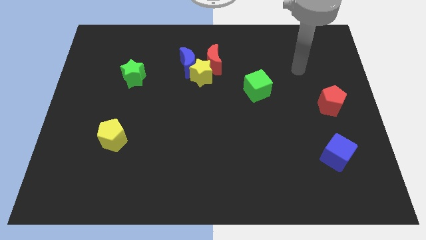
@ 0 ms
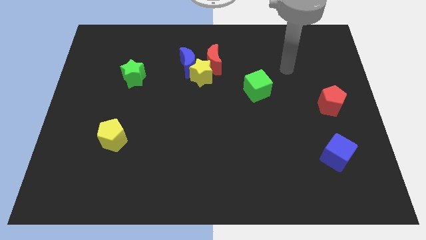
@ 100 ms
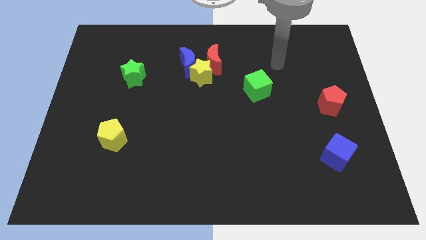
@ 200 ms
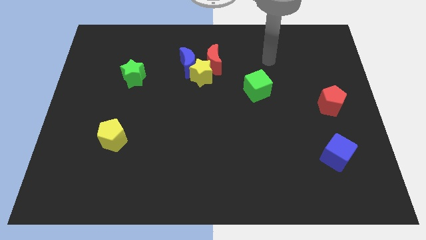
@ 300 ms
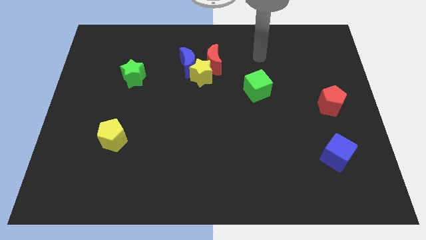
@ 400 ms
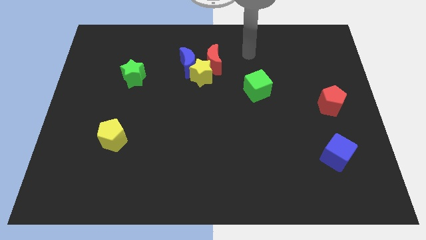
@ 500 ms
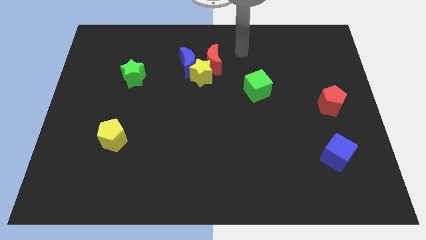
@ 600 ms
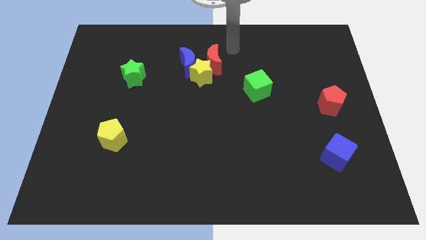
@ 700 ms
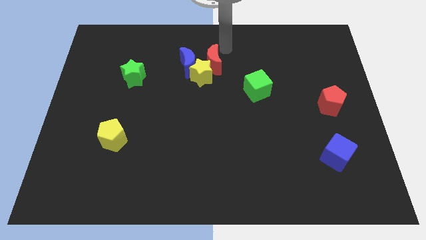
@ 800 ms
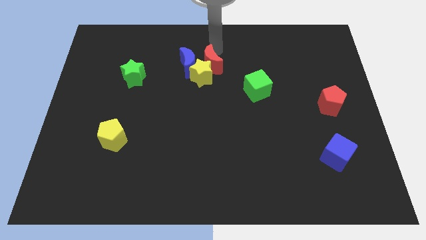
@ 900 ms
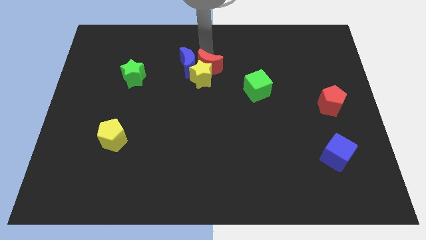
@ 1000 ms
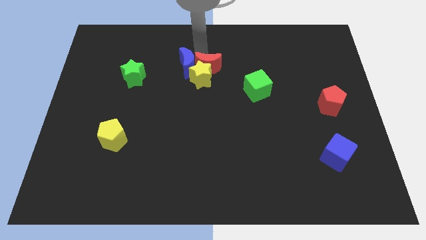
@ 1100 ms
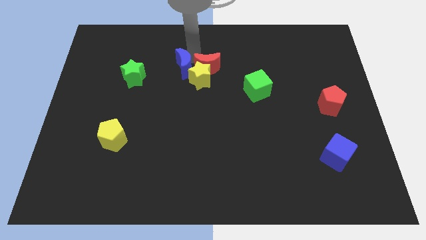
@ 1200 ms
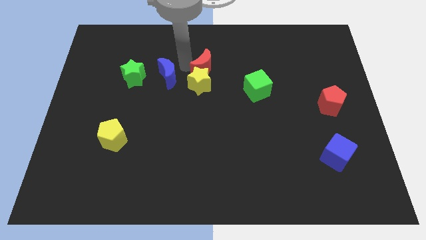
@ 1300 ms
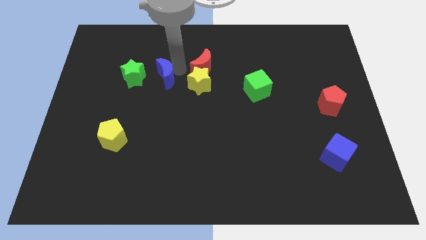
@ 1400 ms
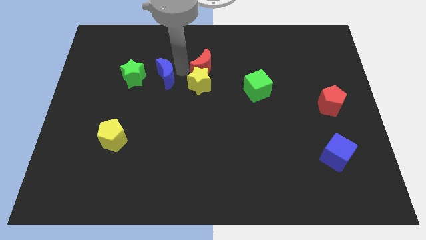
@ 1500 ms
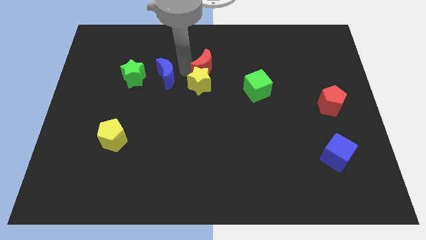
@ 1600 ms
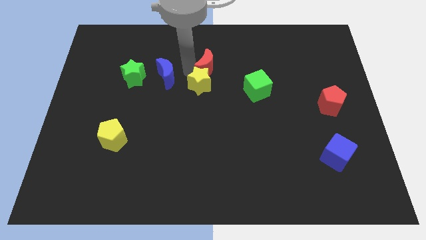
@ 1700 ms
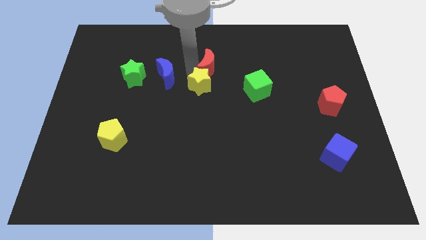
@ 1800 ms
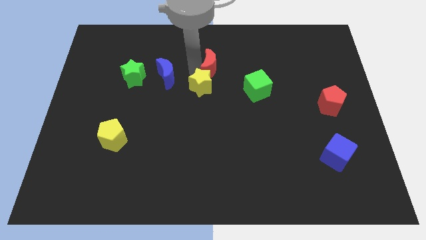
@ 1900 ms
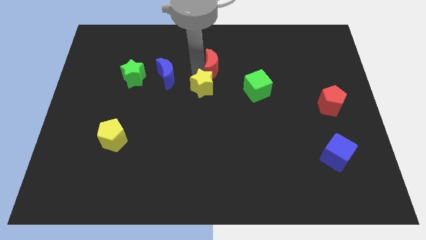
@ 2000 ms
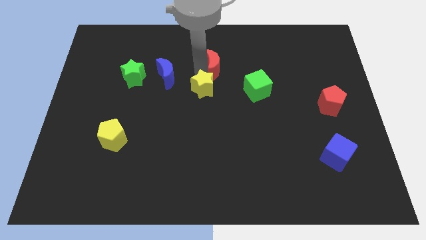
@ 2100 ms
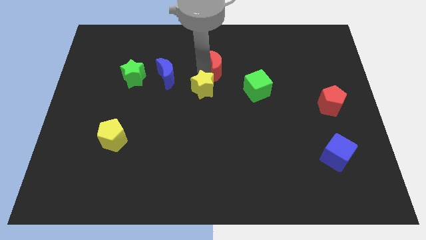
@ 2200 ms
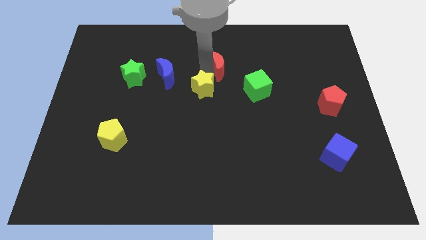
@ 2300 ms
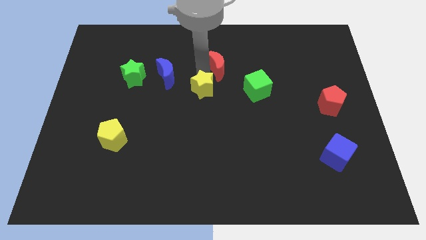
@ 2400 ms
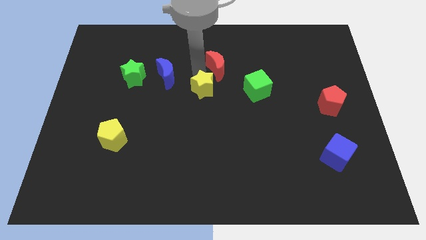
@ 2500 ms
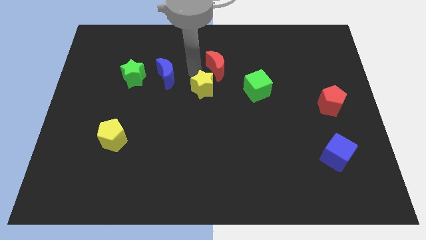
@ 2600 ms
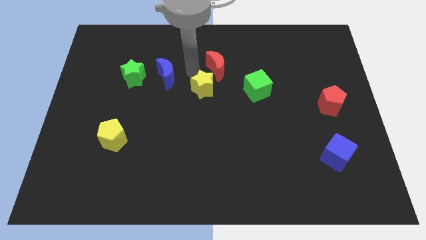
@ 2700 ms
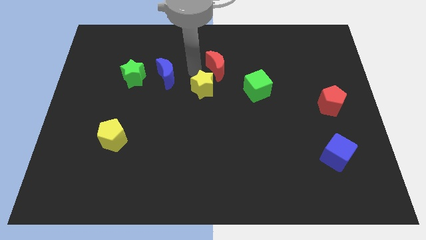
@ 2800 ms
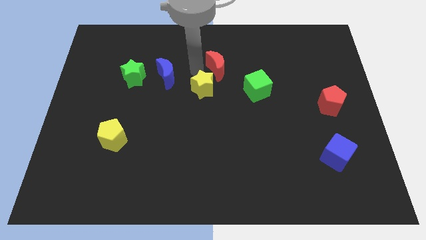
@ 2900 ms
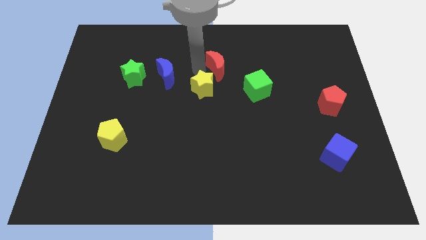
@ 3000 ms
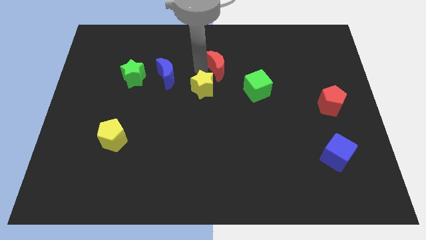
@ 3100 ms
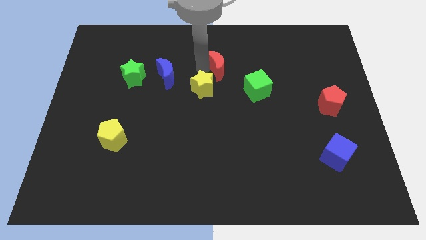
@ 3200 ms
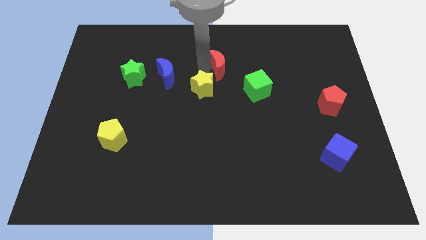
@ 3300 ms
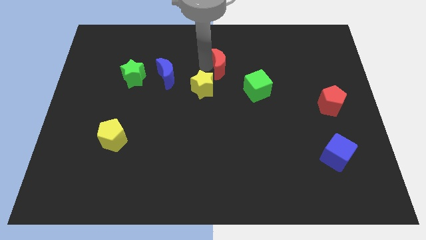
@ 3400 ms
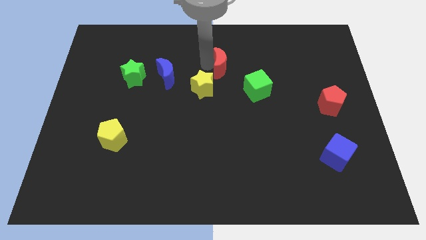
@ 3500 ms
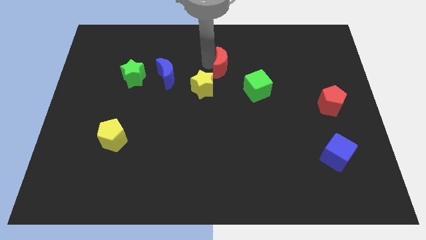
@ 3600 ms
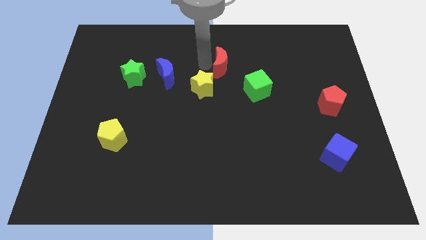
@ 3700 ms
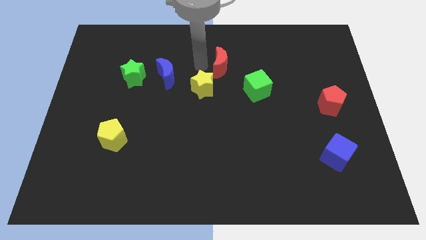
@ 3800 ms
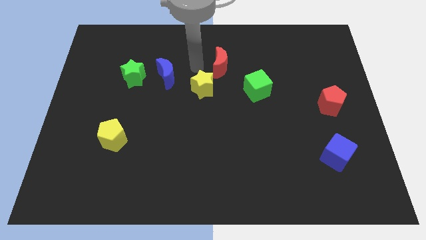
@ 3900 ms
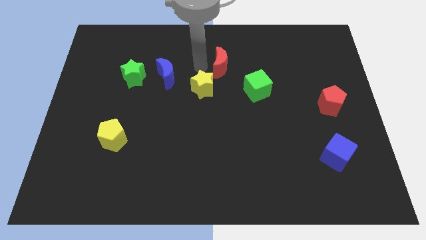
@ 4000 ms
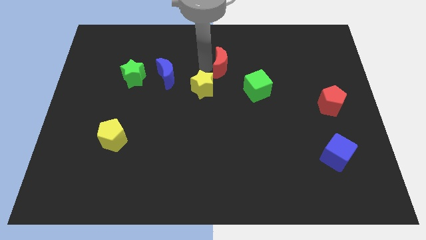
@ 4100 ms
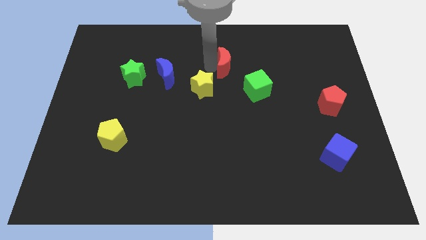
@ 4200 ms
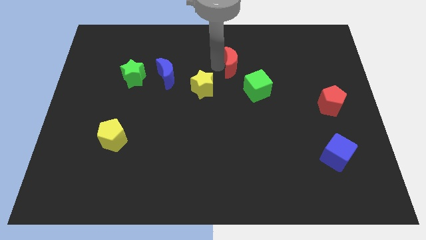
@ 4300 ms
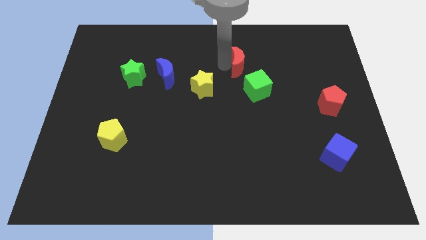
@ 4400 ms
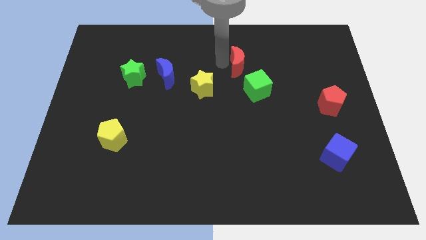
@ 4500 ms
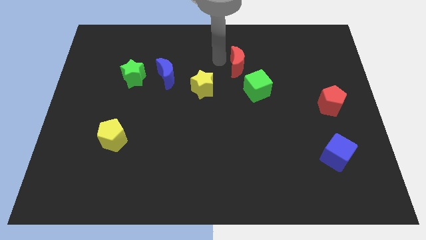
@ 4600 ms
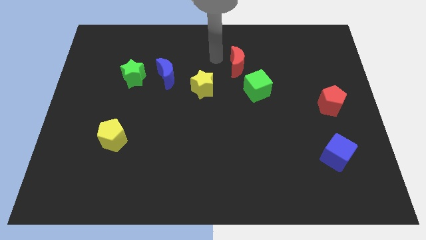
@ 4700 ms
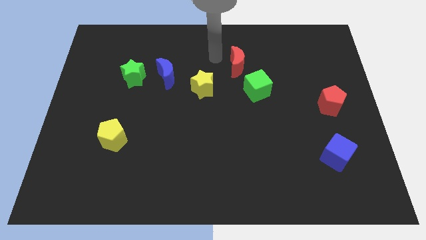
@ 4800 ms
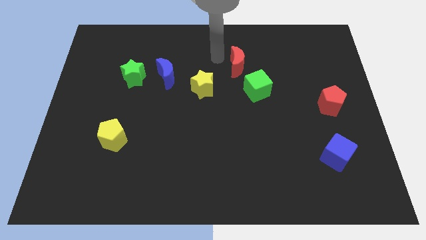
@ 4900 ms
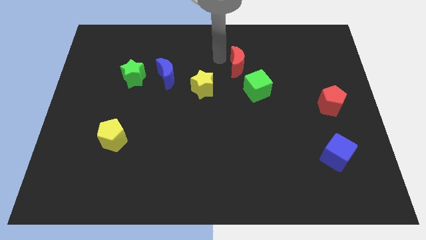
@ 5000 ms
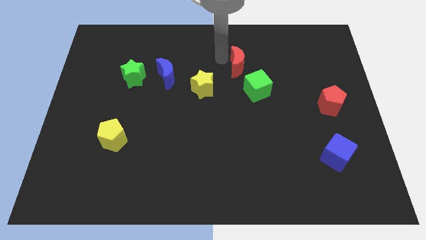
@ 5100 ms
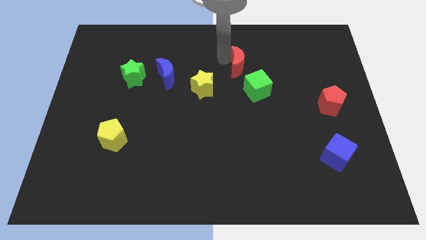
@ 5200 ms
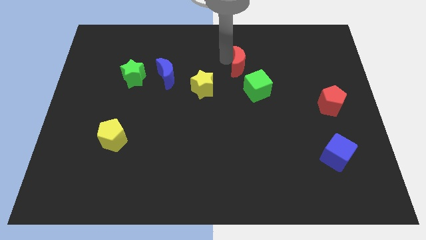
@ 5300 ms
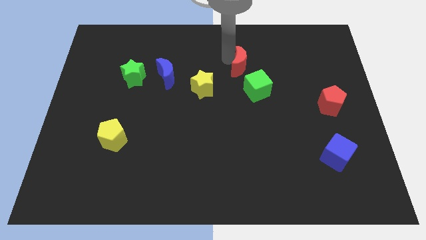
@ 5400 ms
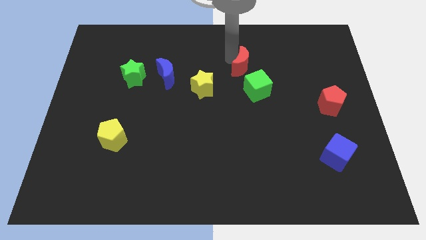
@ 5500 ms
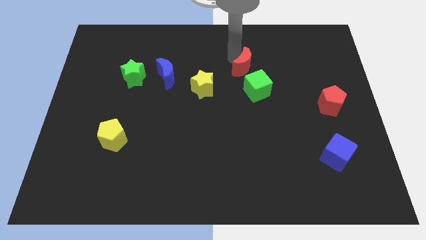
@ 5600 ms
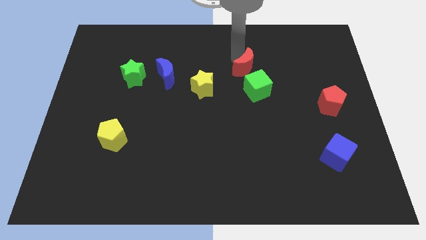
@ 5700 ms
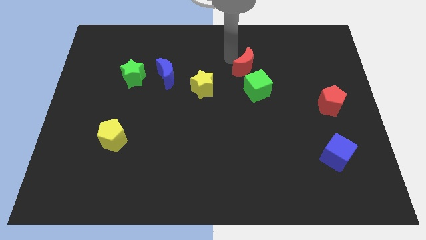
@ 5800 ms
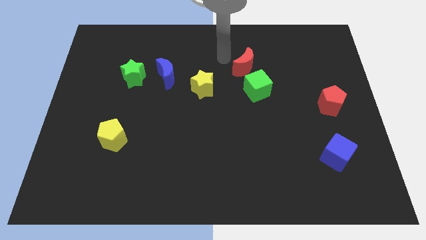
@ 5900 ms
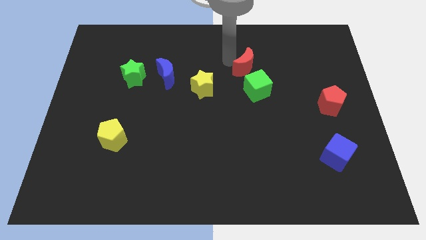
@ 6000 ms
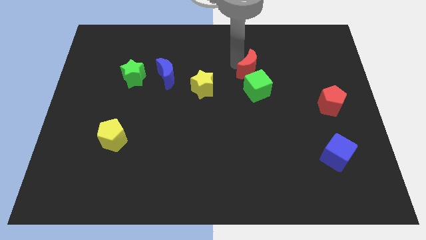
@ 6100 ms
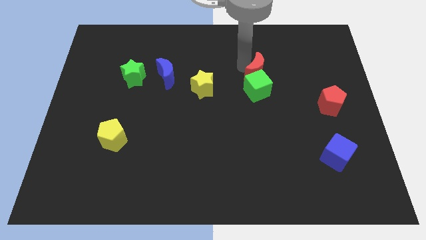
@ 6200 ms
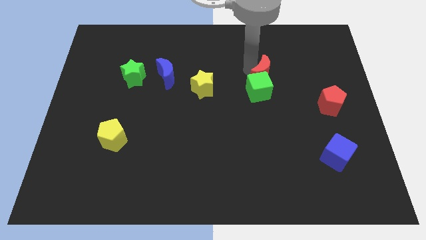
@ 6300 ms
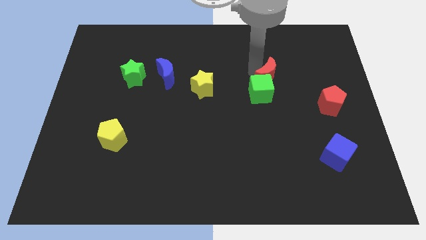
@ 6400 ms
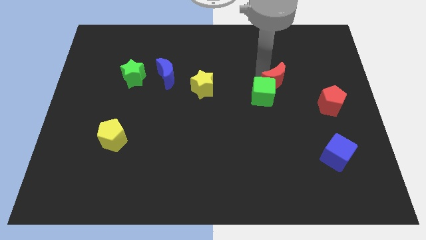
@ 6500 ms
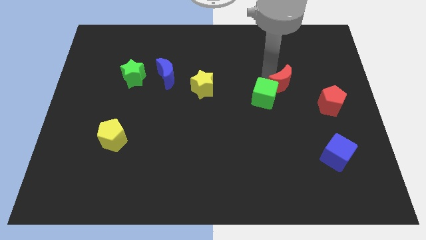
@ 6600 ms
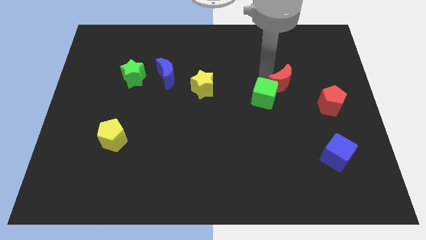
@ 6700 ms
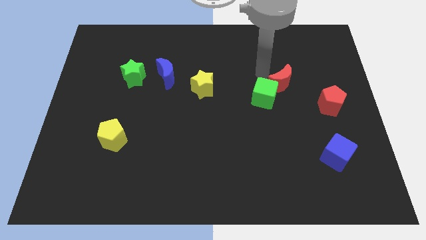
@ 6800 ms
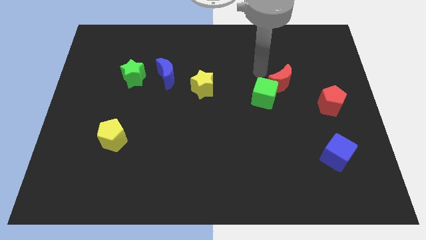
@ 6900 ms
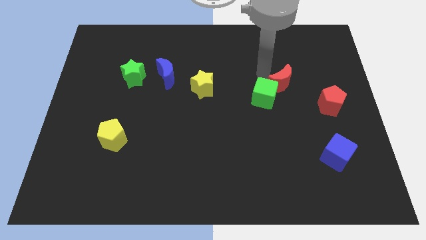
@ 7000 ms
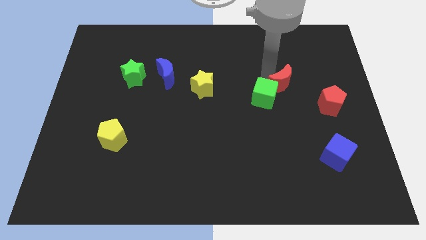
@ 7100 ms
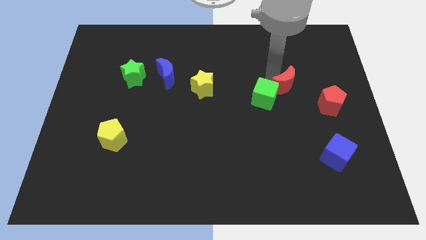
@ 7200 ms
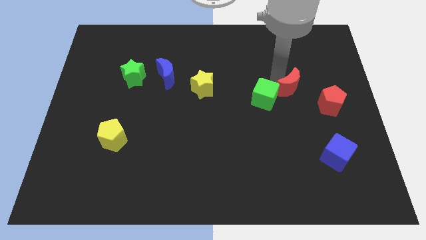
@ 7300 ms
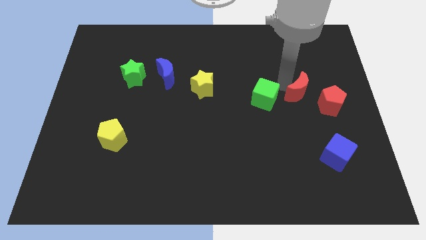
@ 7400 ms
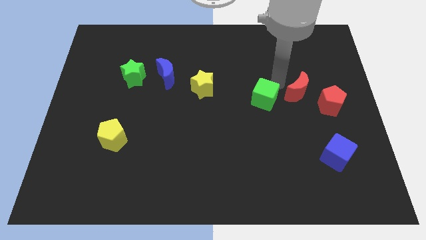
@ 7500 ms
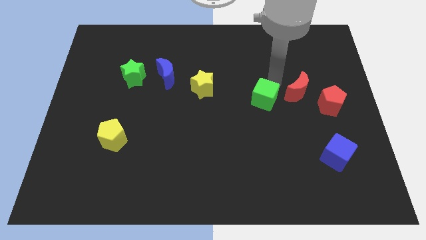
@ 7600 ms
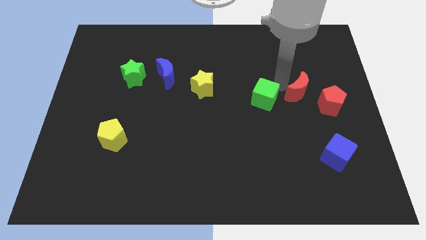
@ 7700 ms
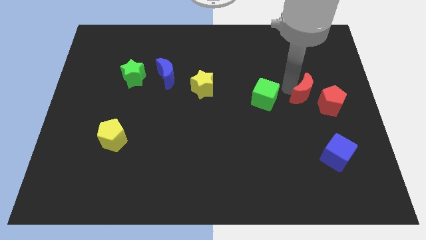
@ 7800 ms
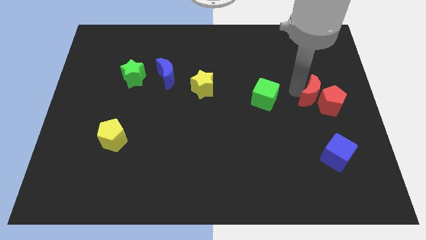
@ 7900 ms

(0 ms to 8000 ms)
put the red moon next to the red pentagon
